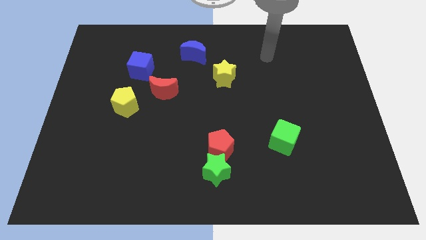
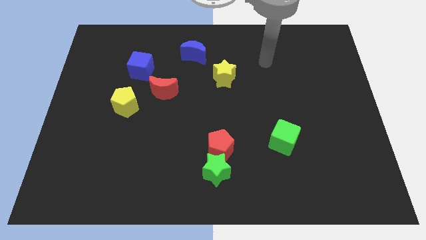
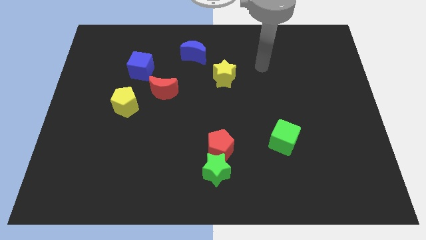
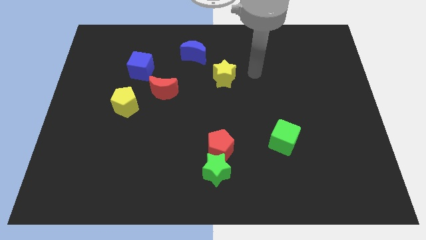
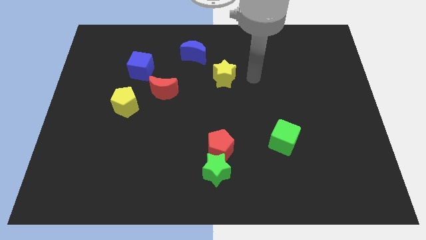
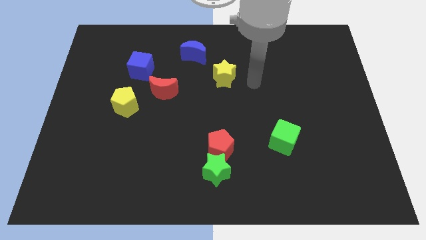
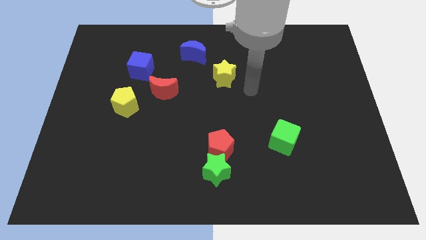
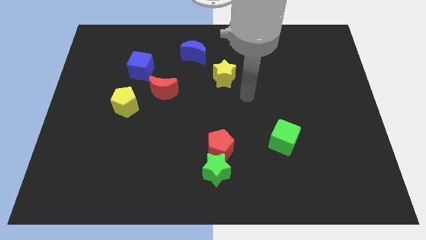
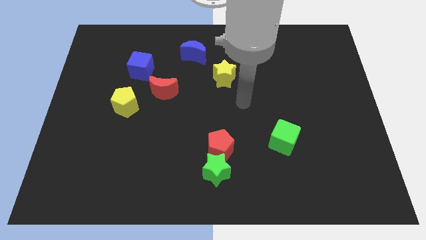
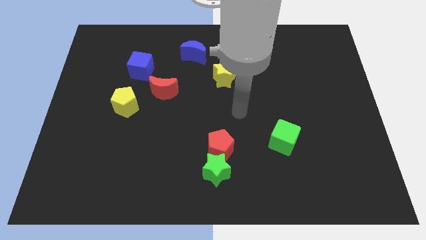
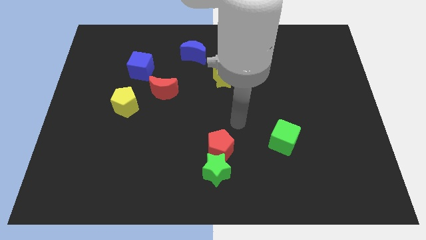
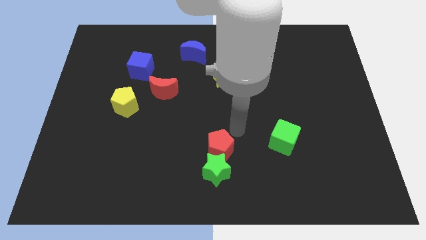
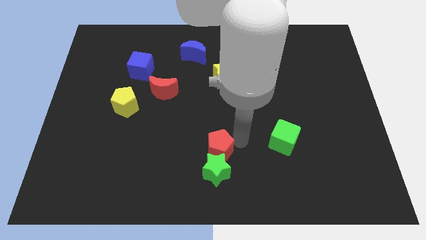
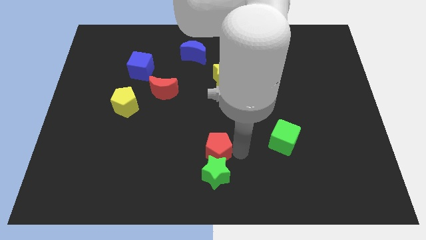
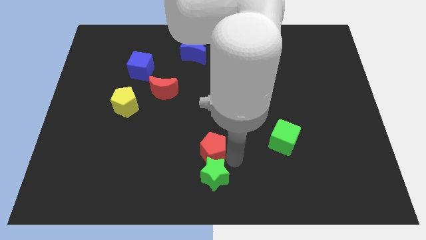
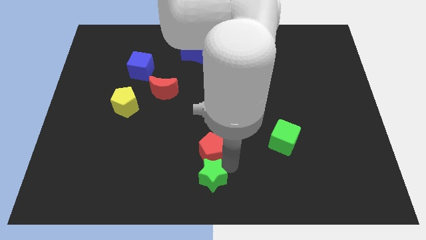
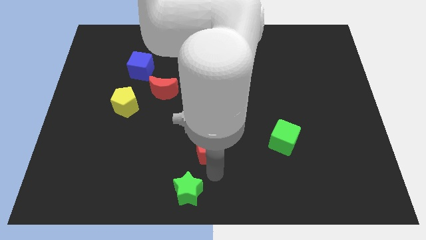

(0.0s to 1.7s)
separate the red pentagon from the green star

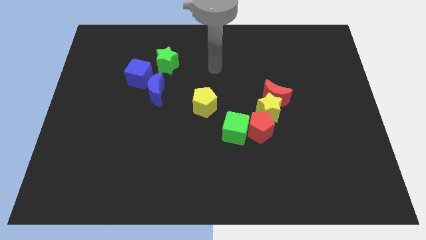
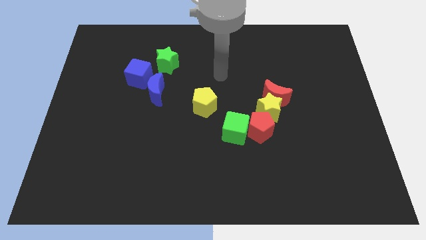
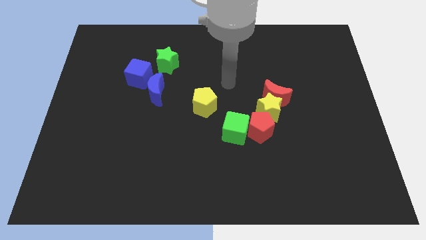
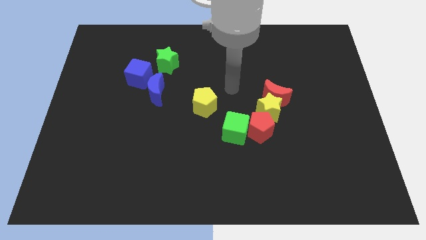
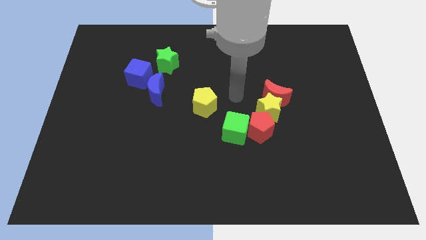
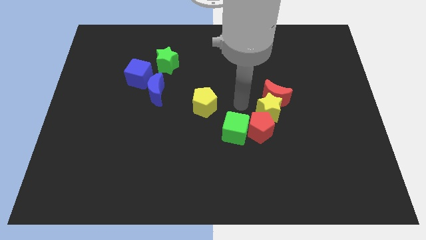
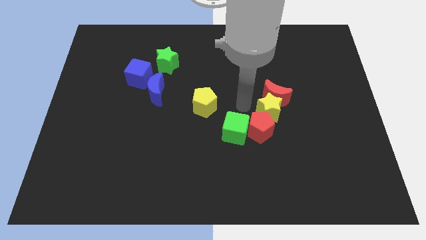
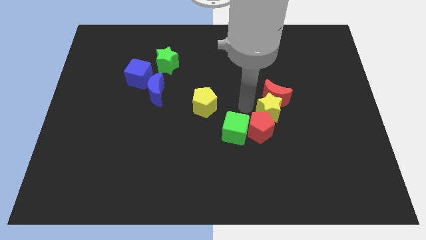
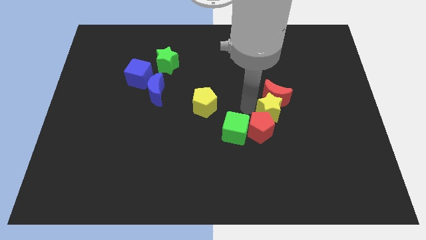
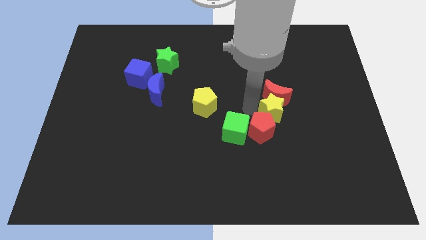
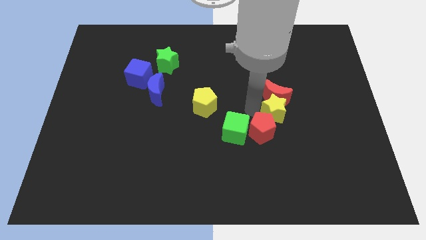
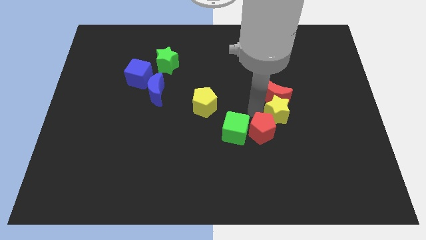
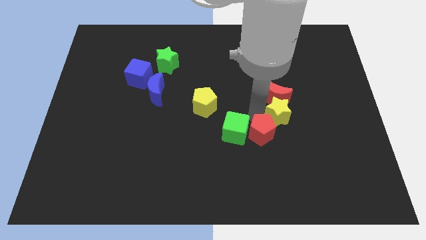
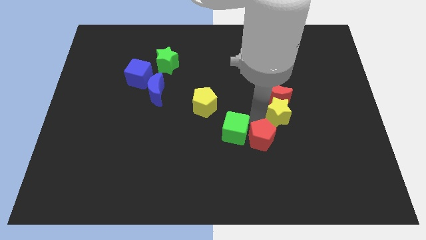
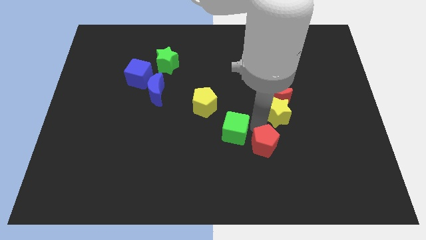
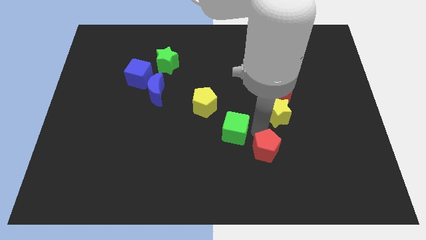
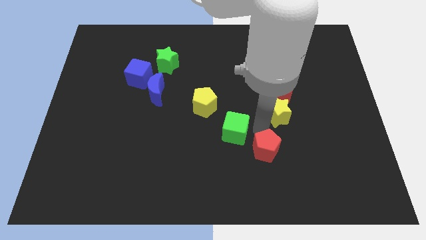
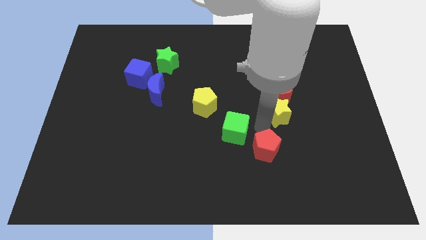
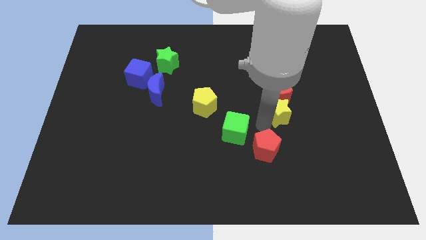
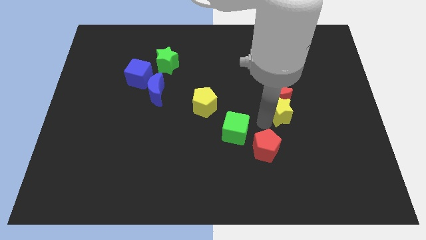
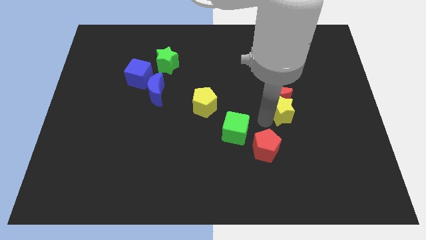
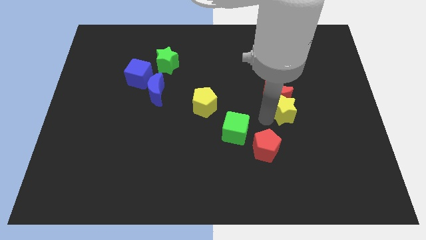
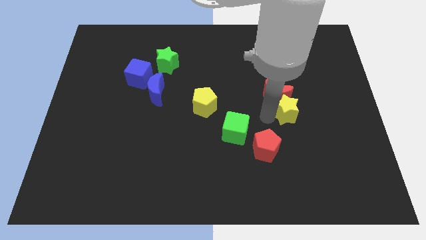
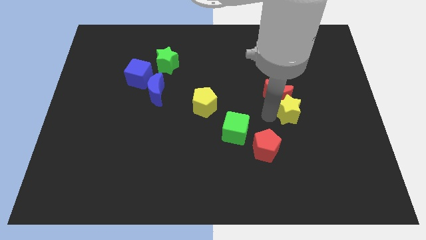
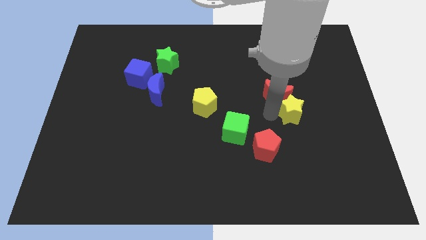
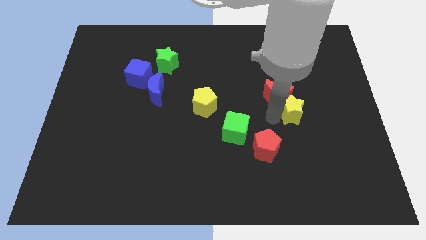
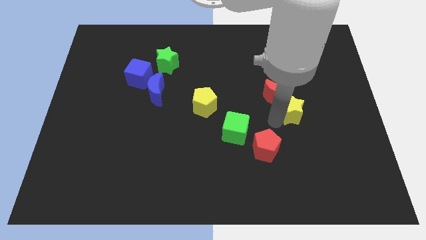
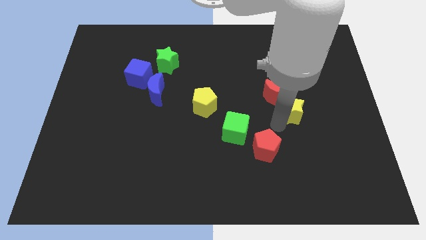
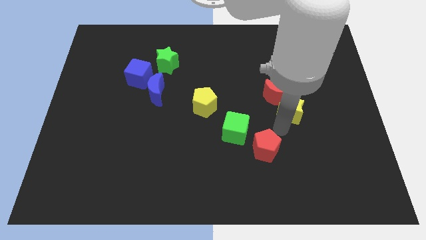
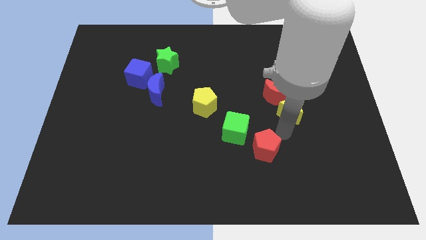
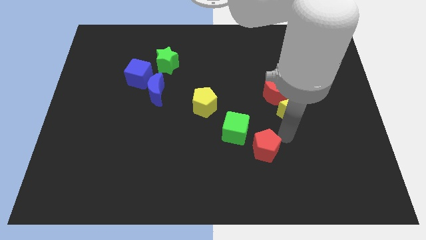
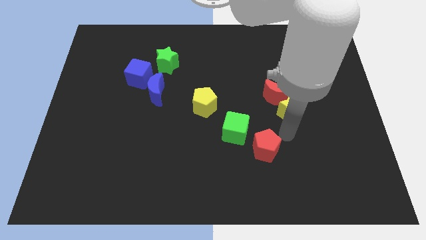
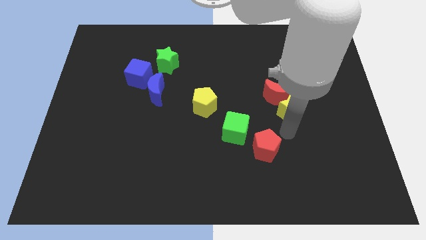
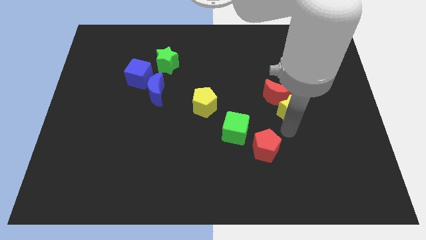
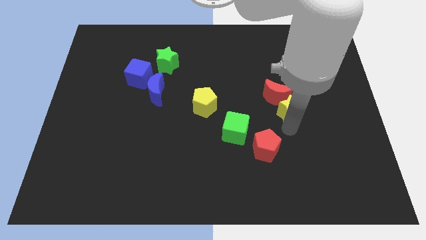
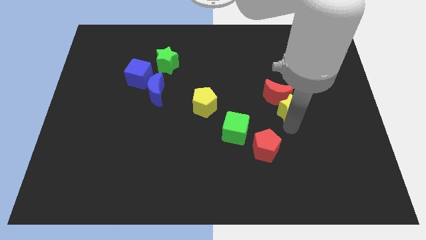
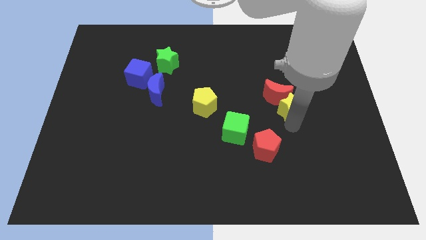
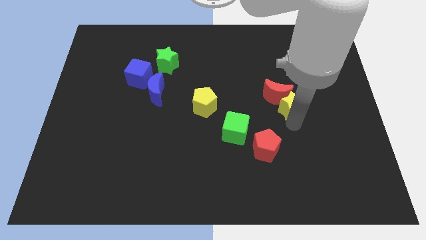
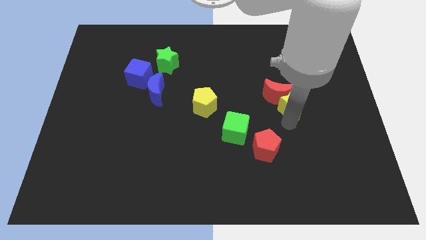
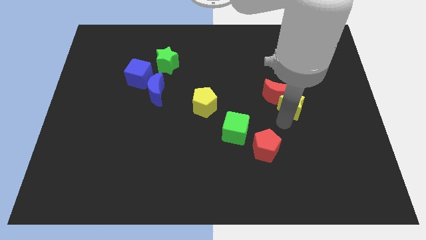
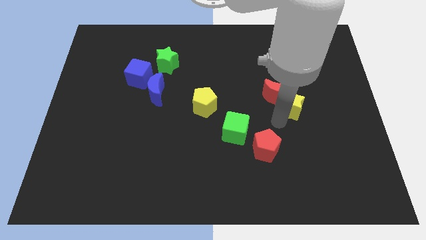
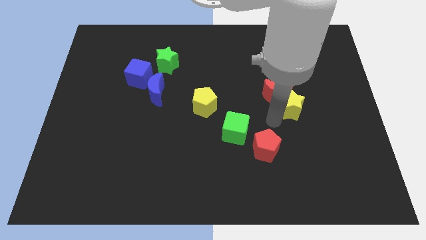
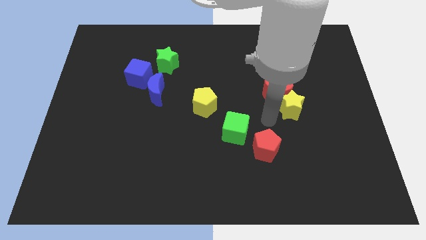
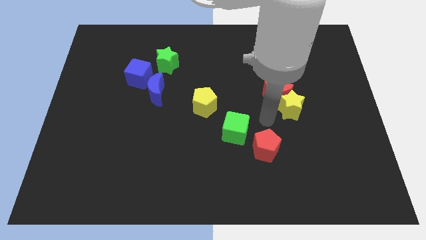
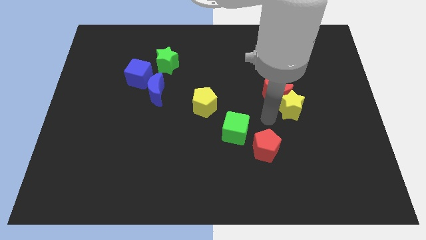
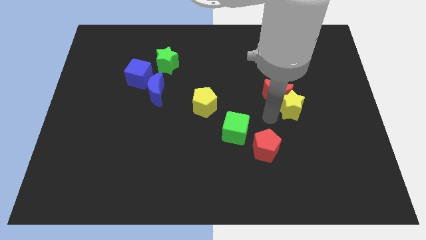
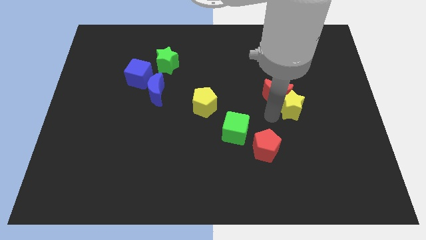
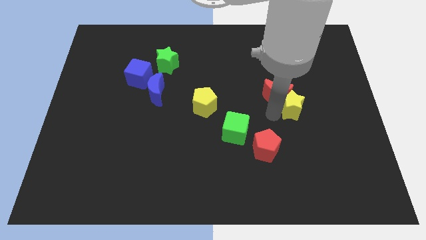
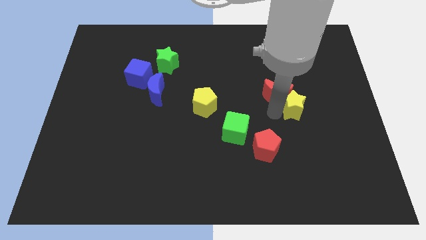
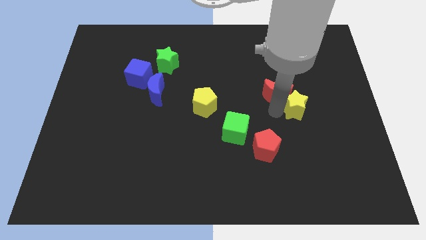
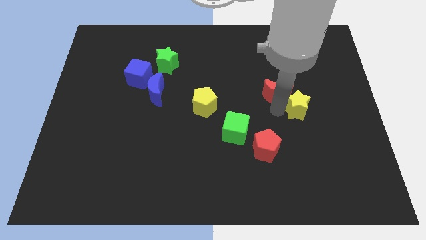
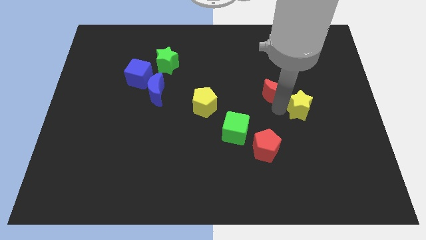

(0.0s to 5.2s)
move the yellow star away from the group

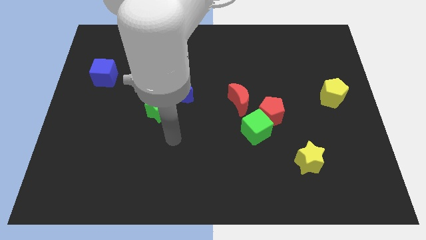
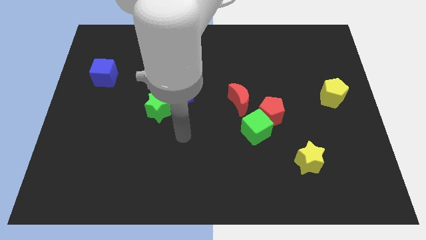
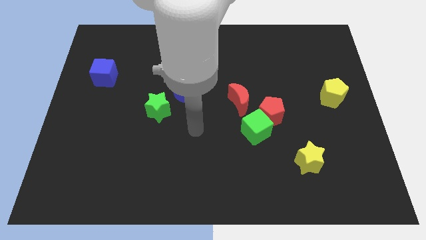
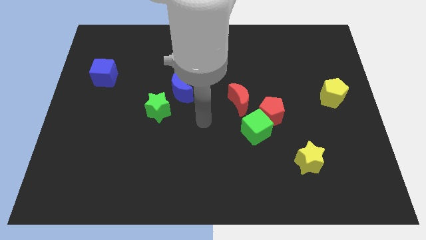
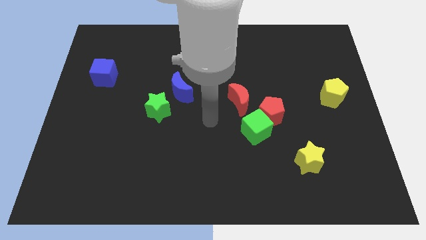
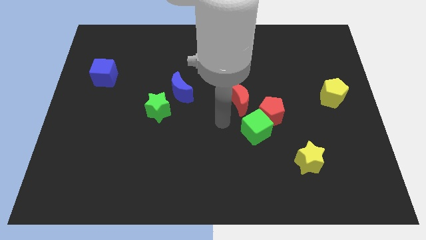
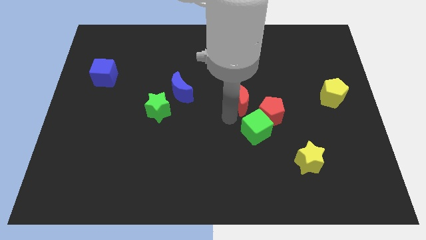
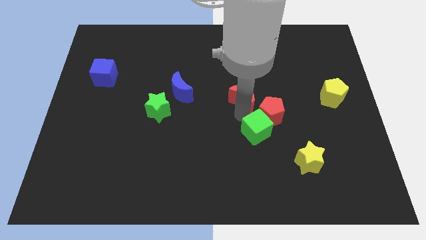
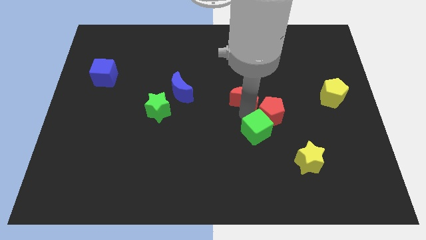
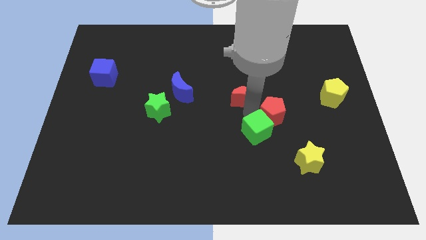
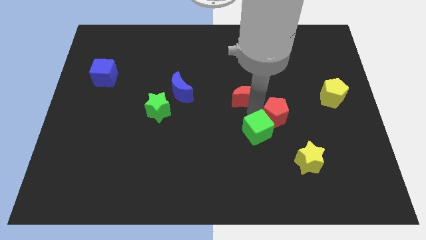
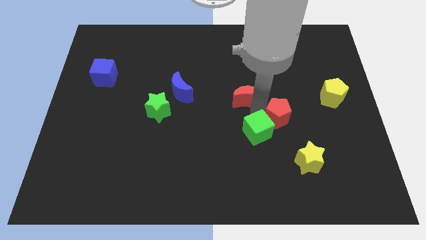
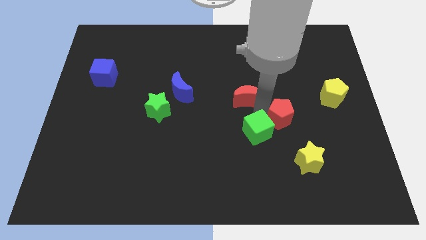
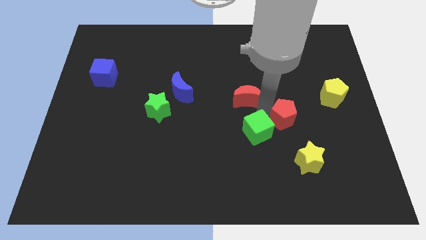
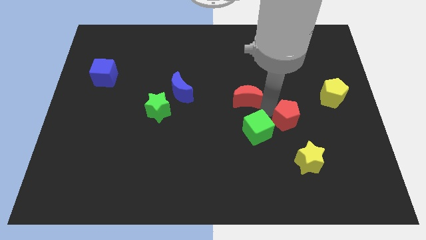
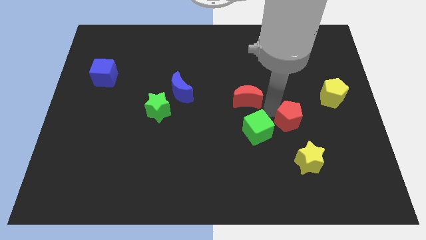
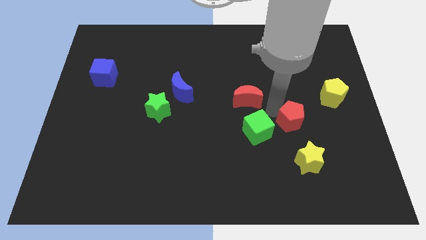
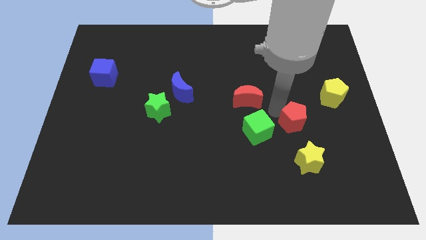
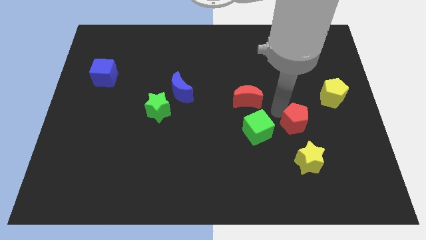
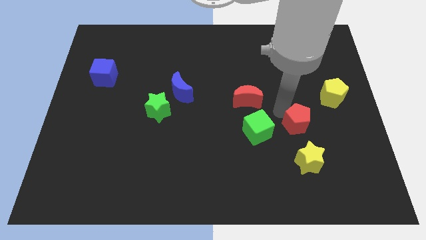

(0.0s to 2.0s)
separate the red pentagon from the green cube and red moon

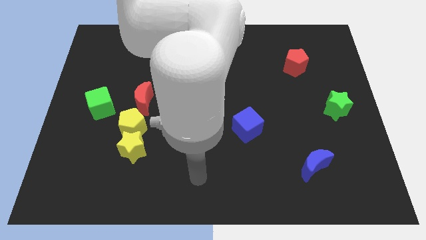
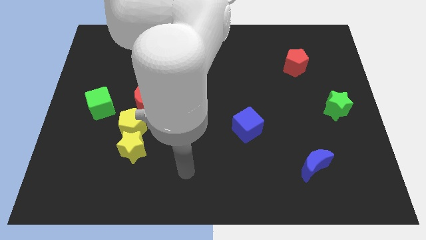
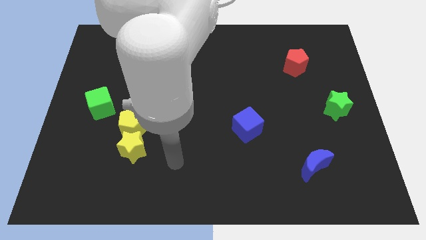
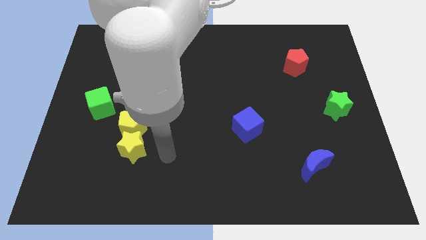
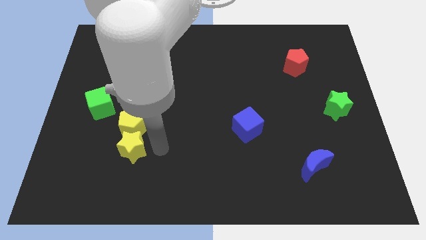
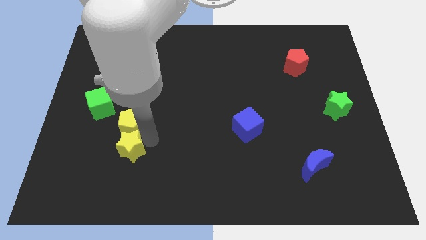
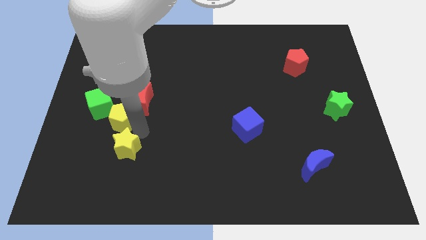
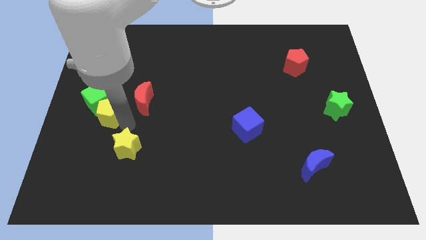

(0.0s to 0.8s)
separate the yellow star from the yellow pentagon
